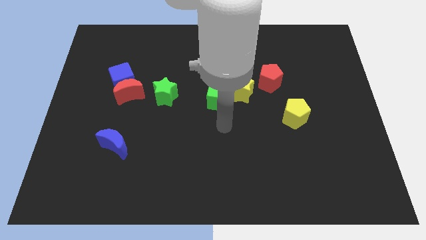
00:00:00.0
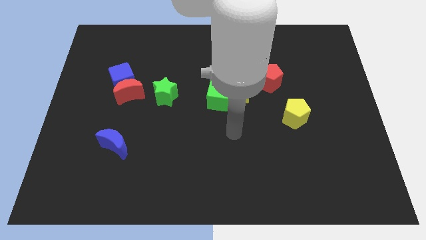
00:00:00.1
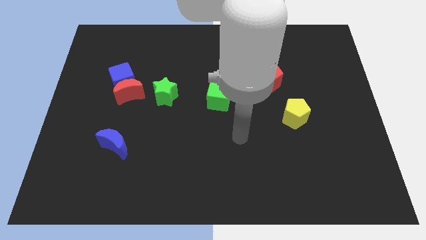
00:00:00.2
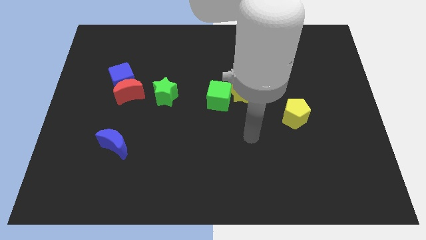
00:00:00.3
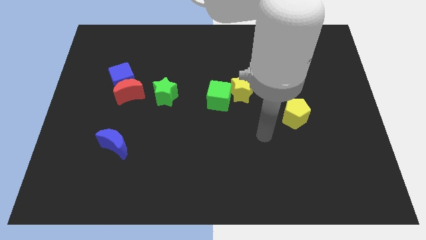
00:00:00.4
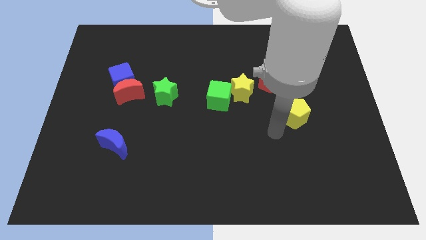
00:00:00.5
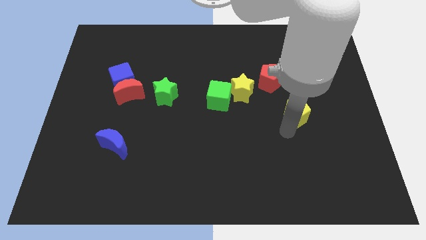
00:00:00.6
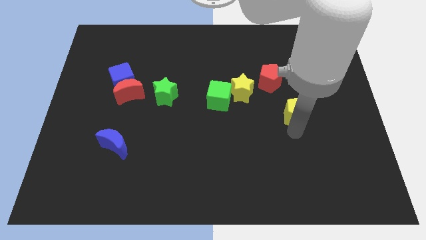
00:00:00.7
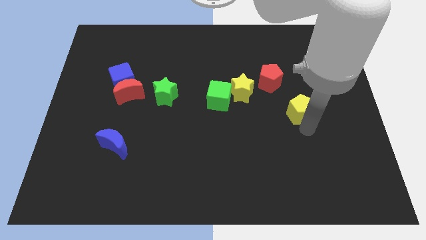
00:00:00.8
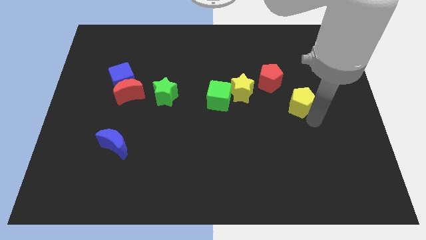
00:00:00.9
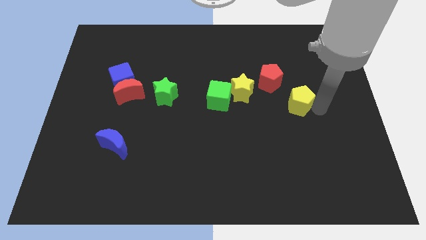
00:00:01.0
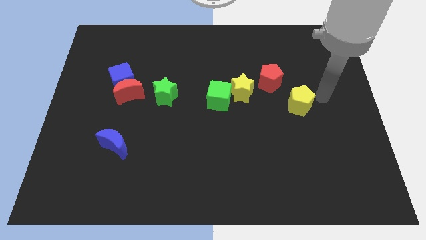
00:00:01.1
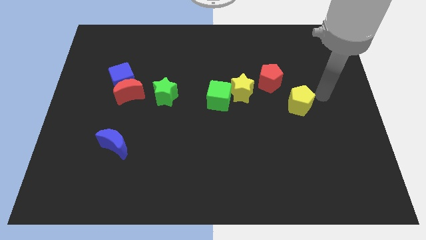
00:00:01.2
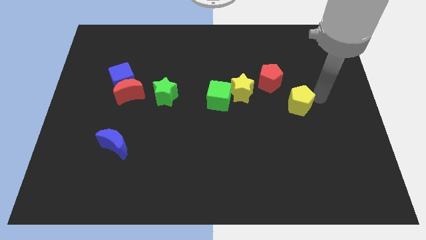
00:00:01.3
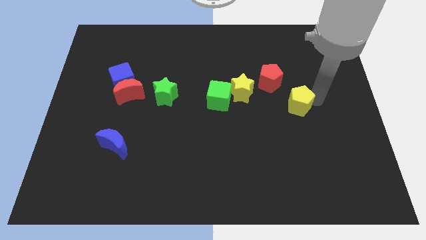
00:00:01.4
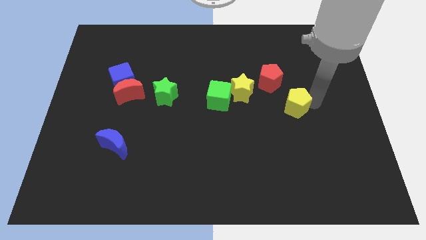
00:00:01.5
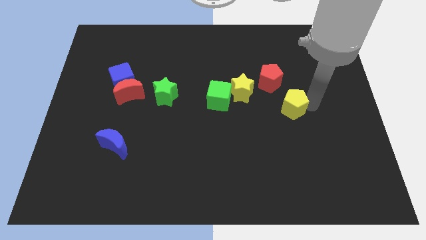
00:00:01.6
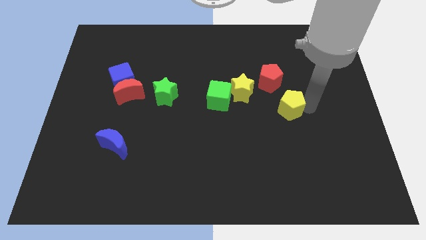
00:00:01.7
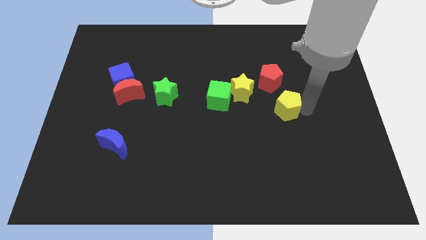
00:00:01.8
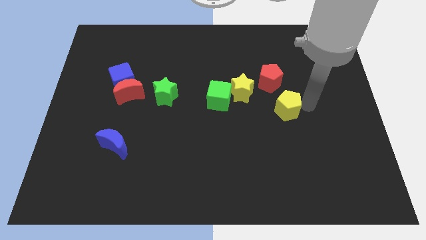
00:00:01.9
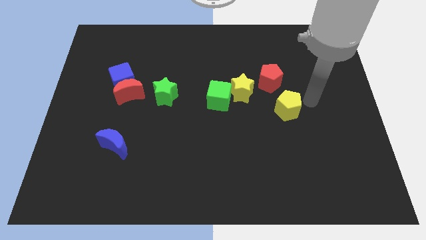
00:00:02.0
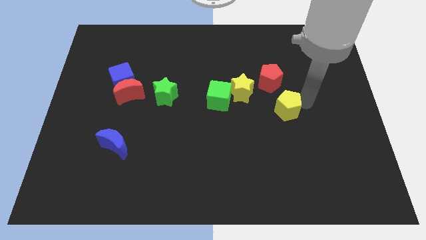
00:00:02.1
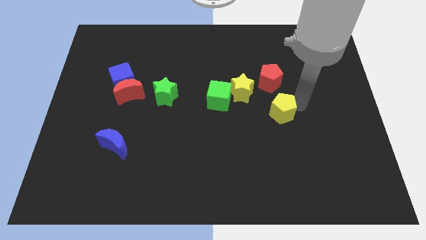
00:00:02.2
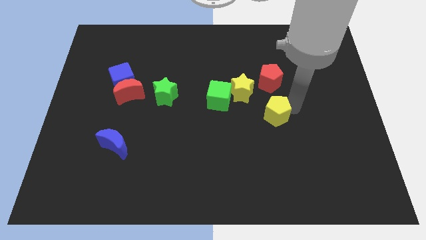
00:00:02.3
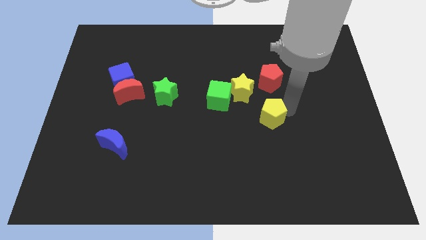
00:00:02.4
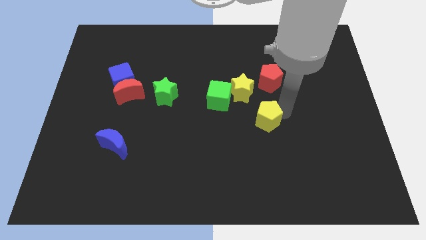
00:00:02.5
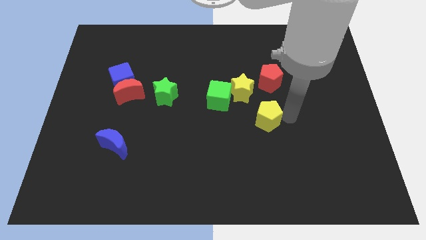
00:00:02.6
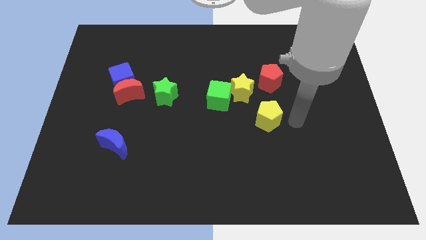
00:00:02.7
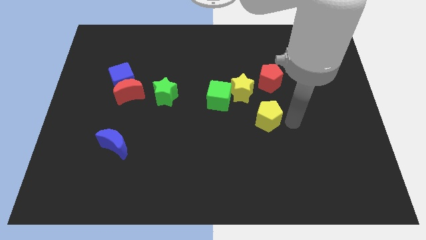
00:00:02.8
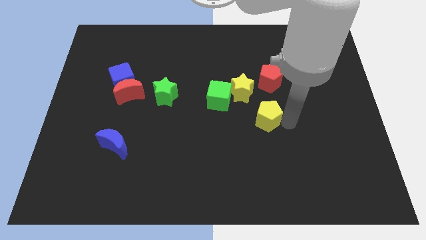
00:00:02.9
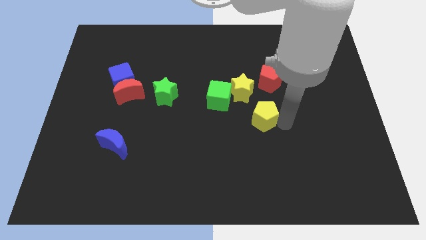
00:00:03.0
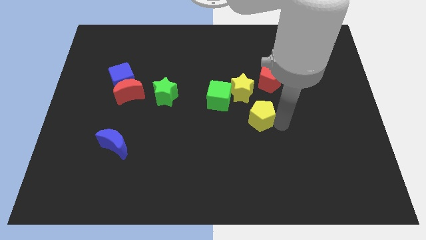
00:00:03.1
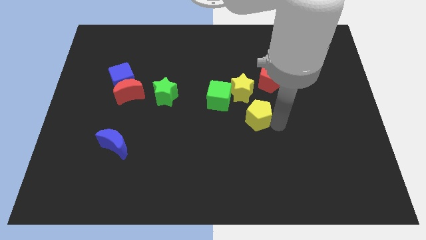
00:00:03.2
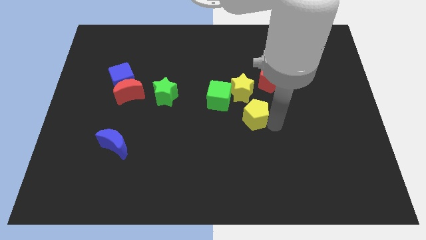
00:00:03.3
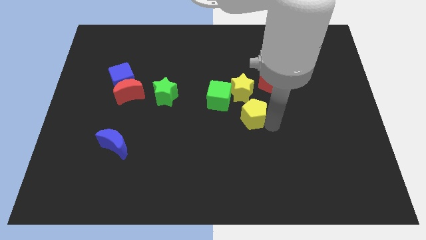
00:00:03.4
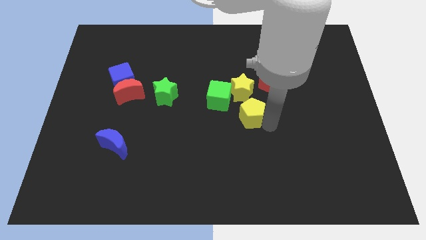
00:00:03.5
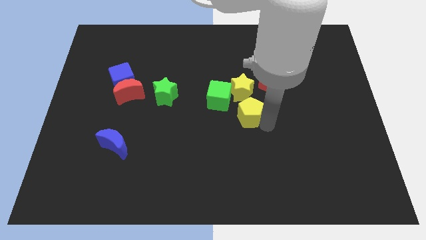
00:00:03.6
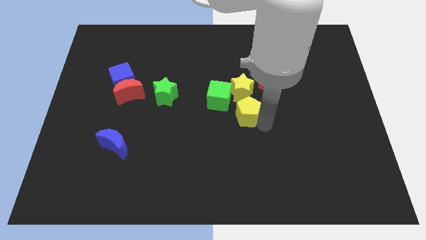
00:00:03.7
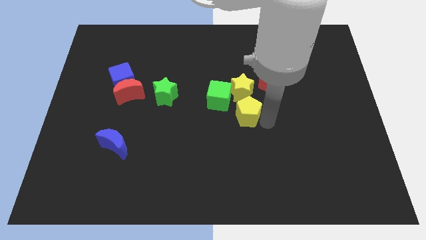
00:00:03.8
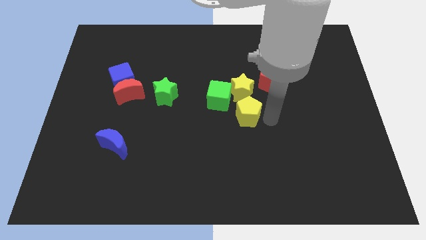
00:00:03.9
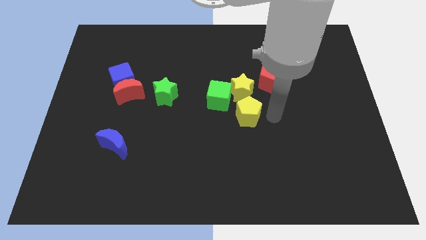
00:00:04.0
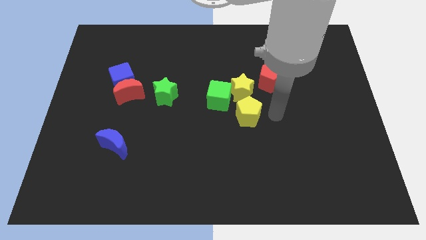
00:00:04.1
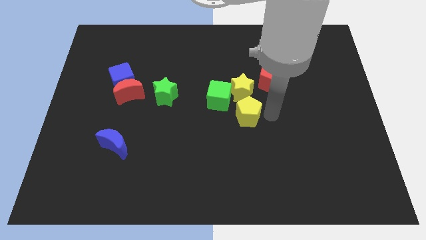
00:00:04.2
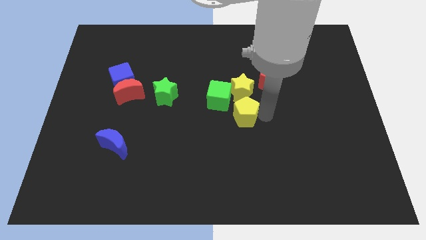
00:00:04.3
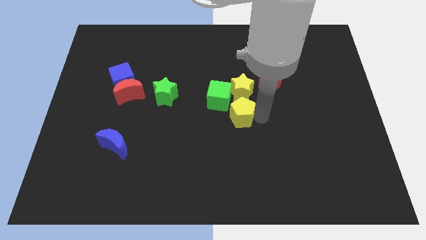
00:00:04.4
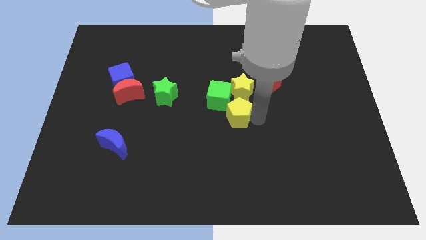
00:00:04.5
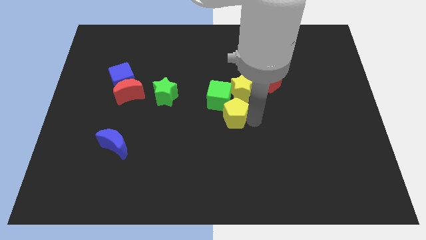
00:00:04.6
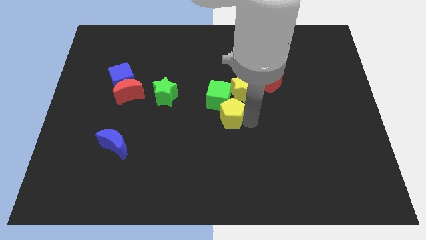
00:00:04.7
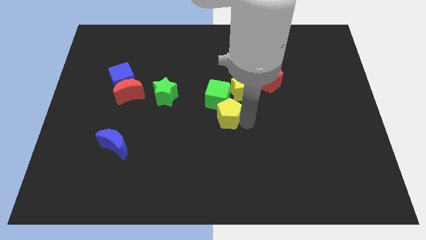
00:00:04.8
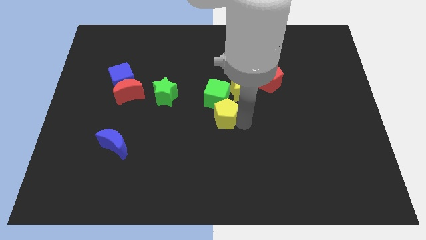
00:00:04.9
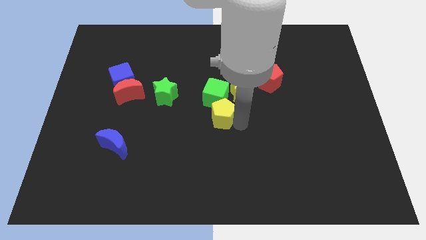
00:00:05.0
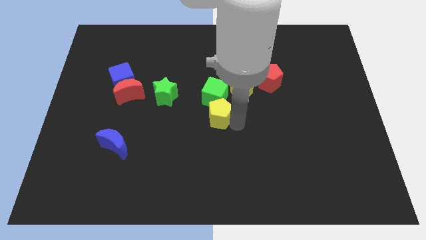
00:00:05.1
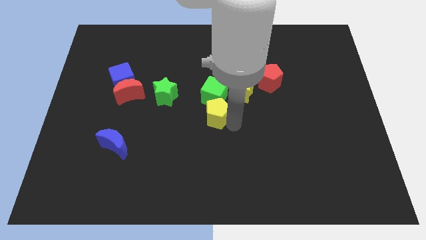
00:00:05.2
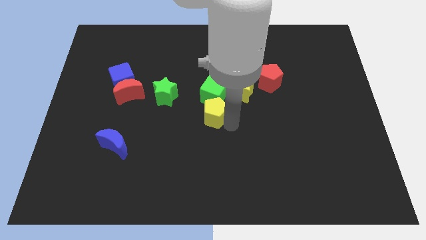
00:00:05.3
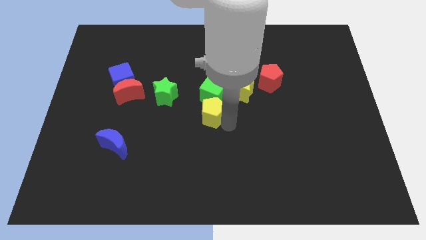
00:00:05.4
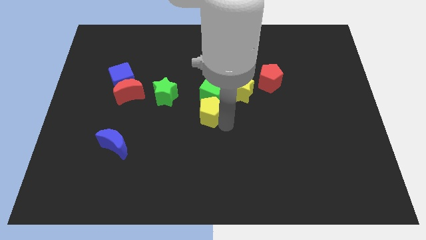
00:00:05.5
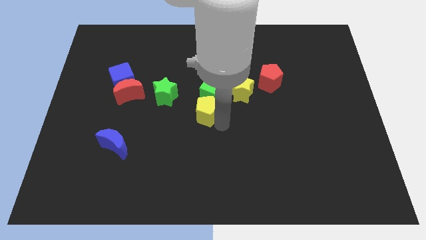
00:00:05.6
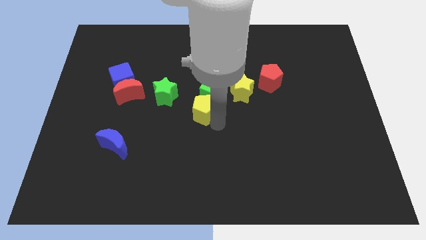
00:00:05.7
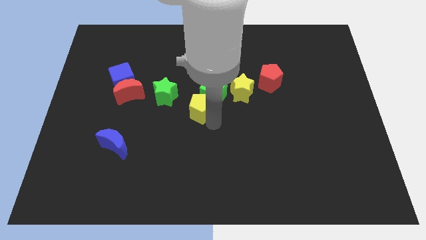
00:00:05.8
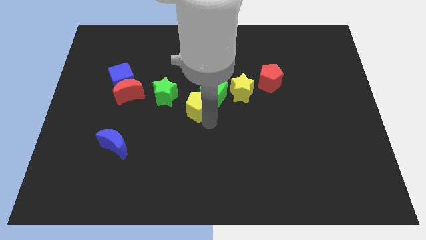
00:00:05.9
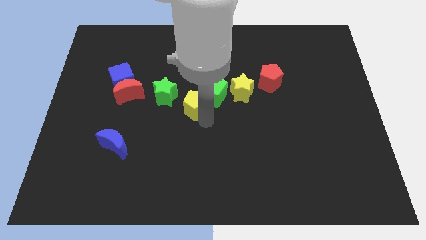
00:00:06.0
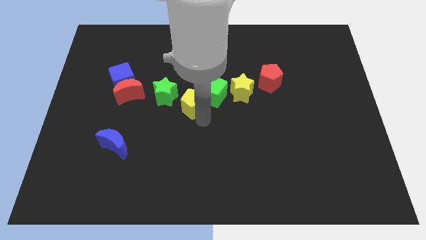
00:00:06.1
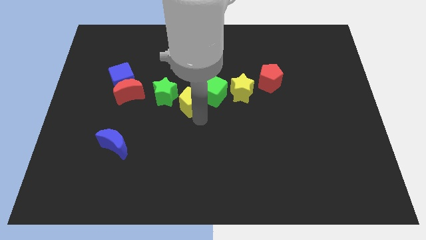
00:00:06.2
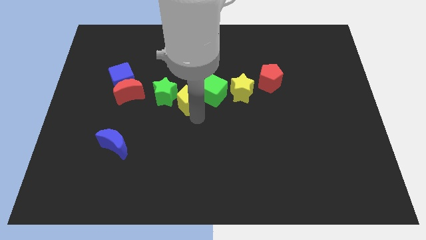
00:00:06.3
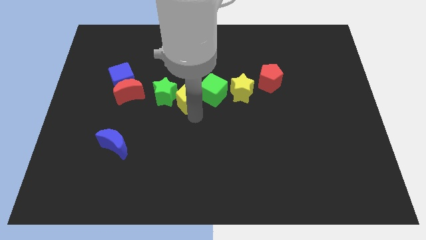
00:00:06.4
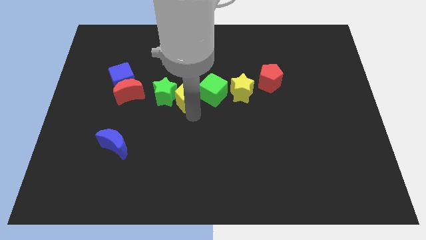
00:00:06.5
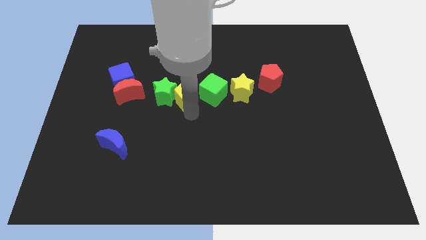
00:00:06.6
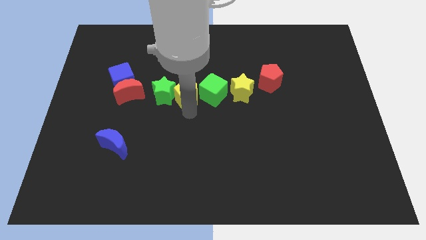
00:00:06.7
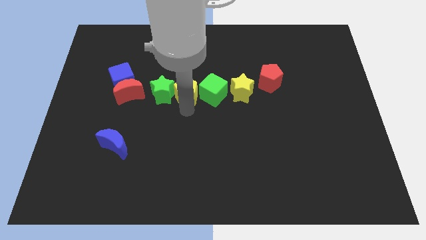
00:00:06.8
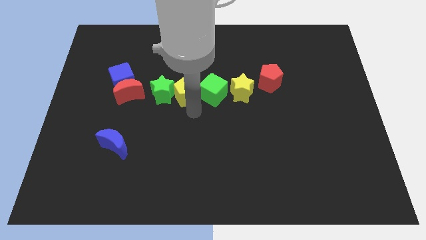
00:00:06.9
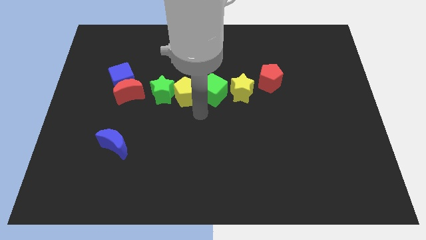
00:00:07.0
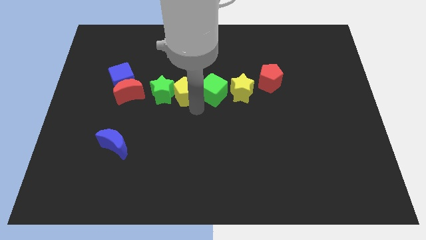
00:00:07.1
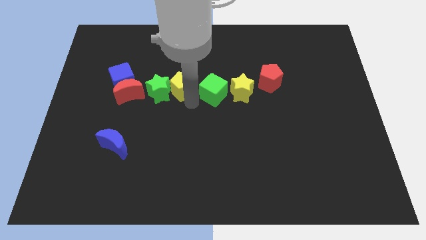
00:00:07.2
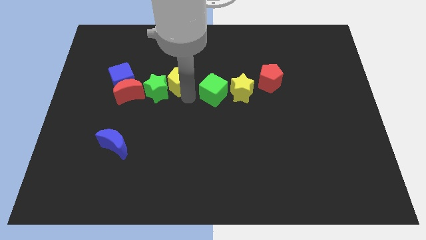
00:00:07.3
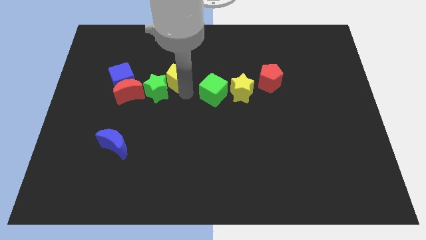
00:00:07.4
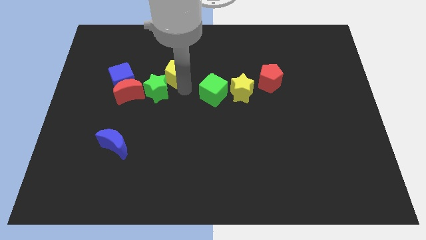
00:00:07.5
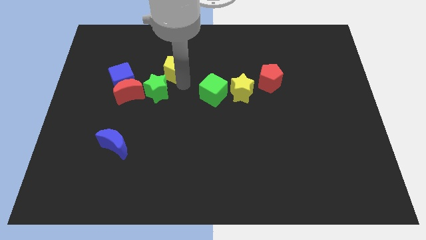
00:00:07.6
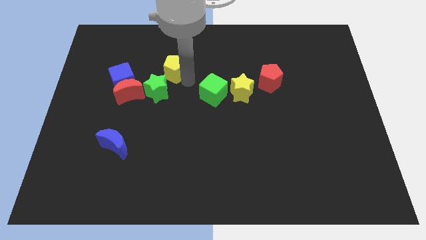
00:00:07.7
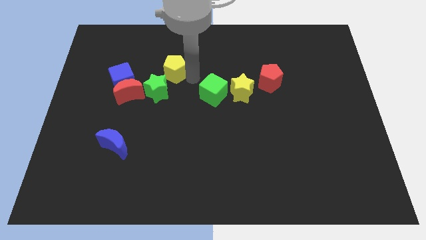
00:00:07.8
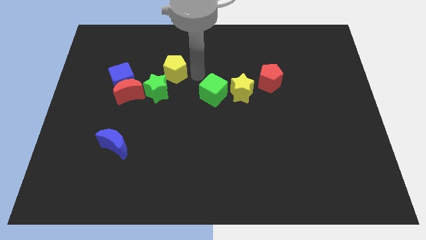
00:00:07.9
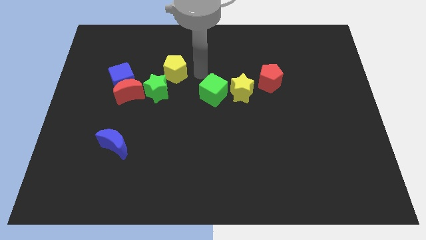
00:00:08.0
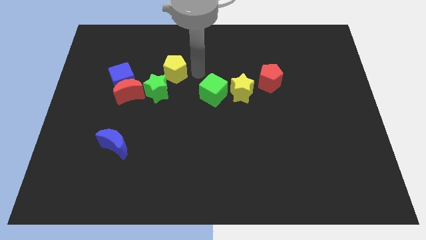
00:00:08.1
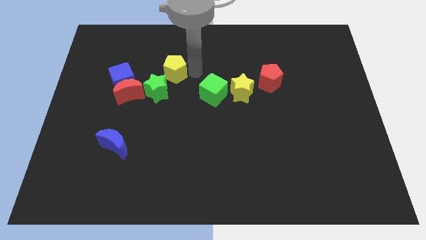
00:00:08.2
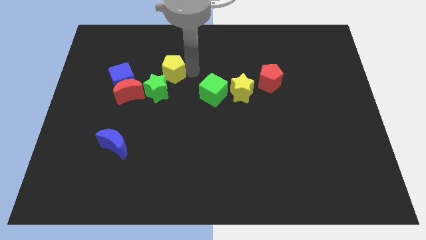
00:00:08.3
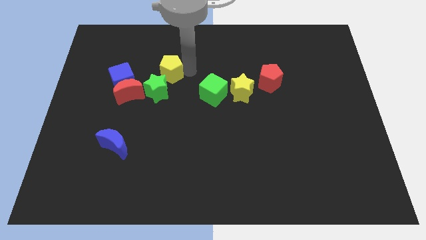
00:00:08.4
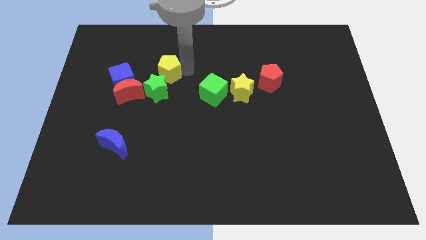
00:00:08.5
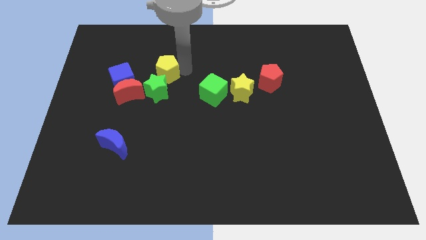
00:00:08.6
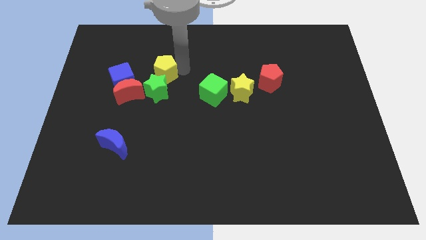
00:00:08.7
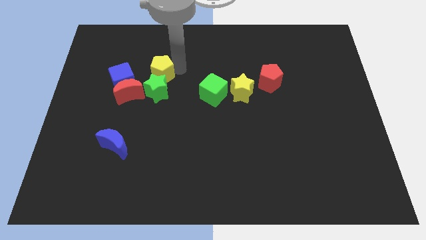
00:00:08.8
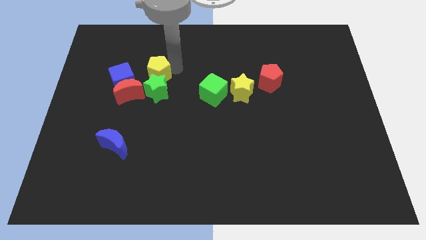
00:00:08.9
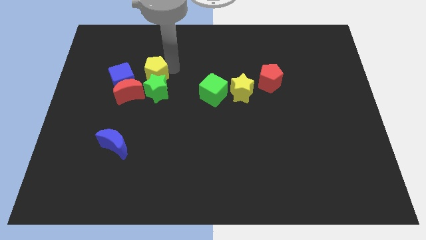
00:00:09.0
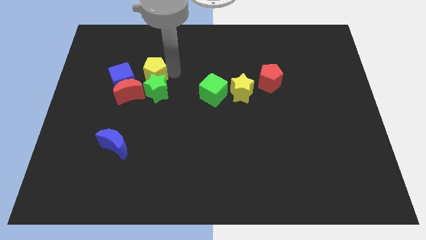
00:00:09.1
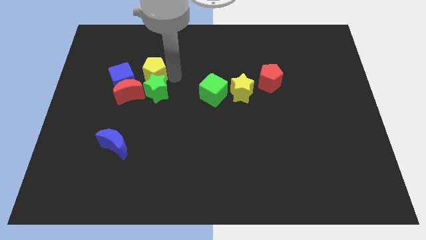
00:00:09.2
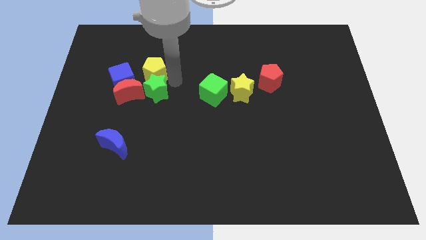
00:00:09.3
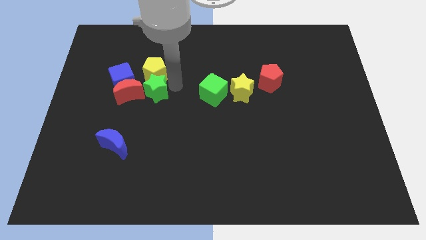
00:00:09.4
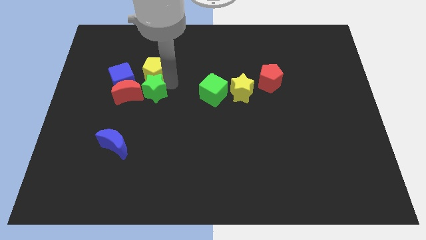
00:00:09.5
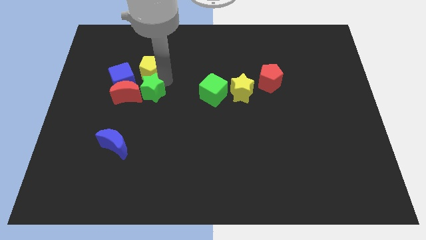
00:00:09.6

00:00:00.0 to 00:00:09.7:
move the yellow pentagon to the top of the red moon
